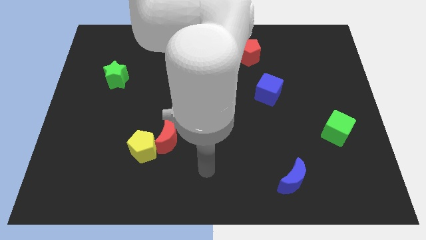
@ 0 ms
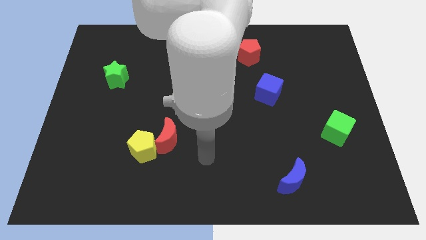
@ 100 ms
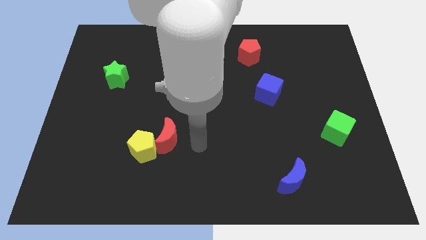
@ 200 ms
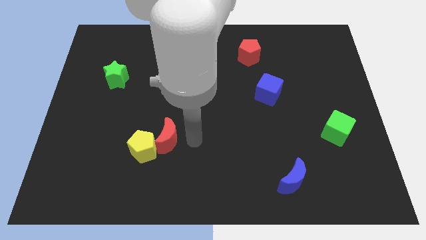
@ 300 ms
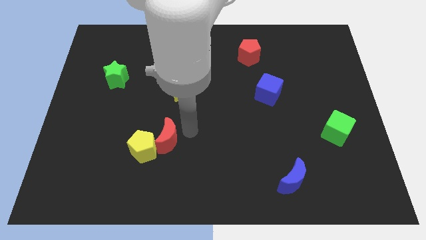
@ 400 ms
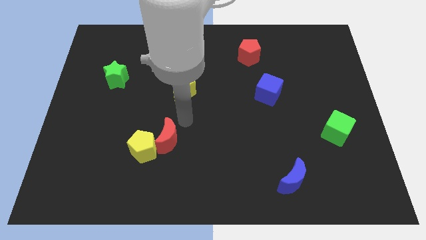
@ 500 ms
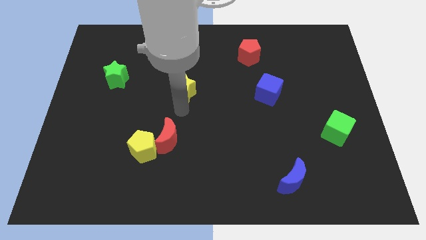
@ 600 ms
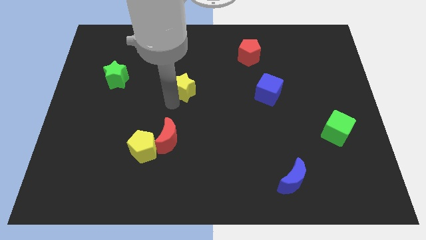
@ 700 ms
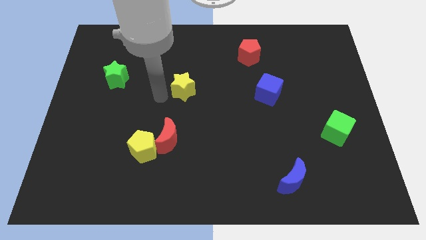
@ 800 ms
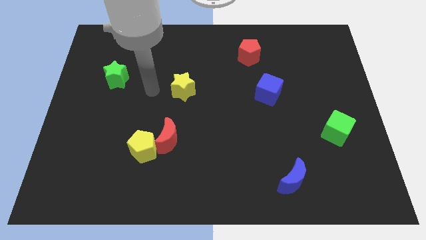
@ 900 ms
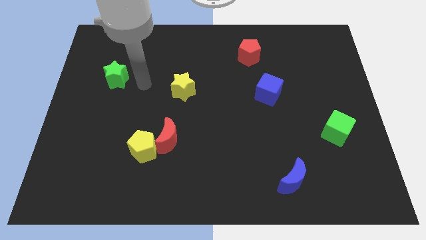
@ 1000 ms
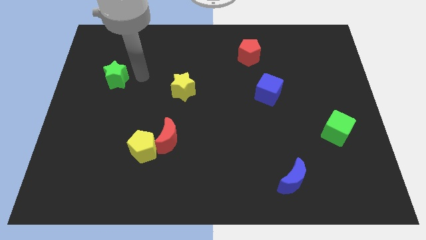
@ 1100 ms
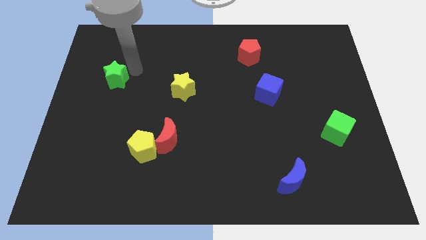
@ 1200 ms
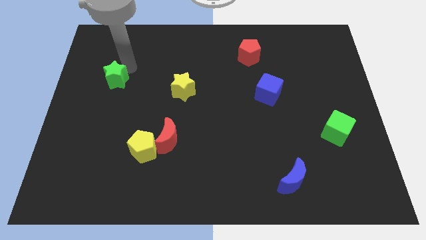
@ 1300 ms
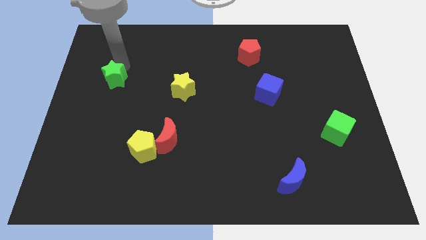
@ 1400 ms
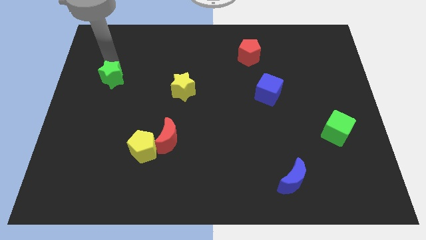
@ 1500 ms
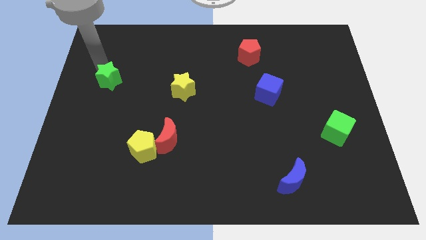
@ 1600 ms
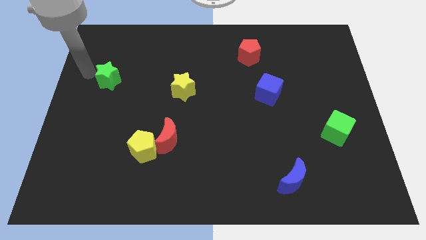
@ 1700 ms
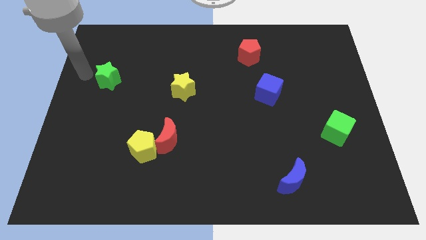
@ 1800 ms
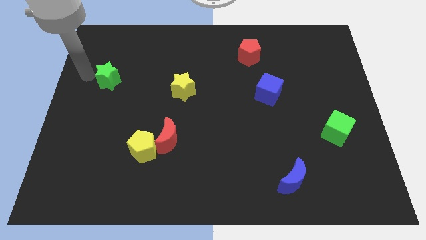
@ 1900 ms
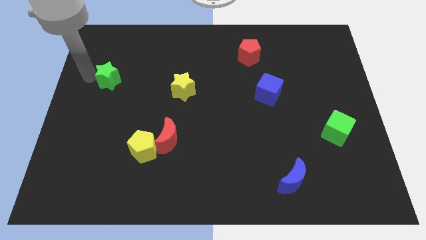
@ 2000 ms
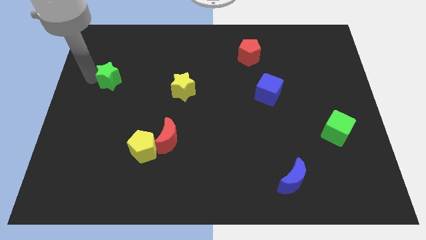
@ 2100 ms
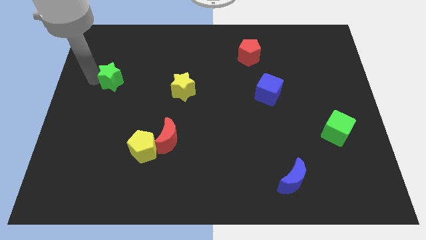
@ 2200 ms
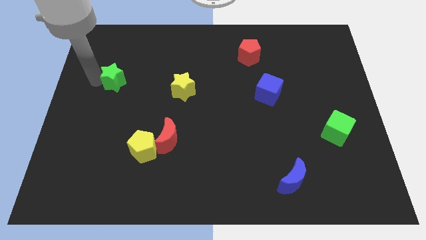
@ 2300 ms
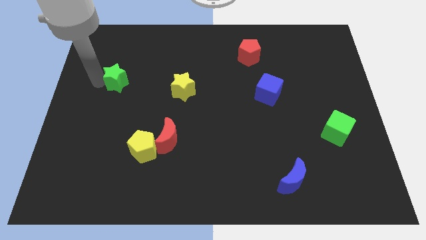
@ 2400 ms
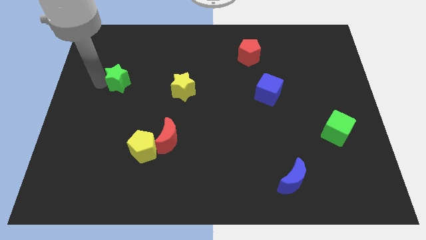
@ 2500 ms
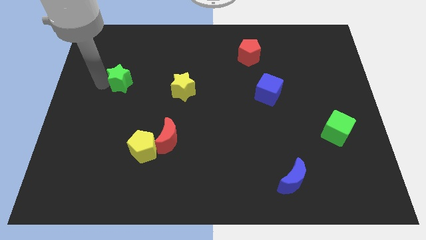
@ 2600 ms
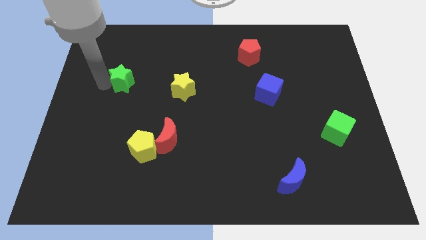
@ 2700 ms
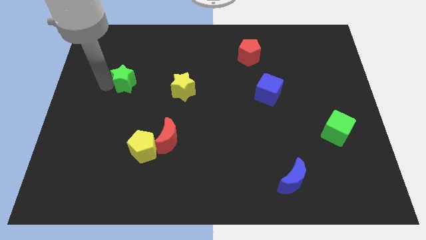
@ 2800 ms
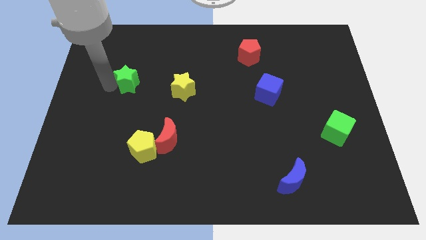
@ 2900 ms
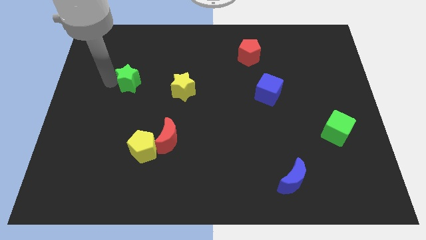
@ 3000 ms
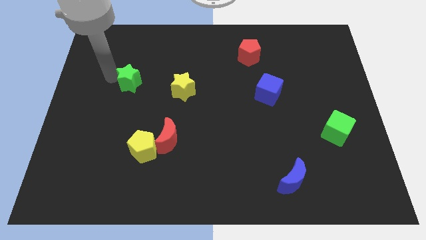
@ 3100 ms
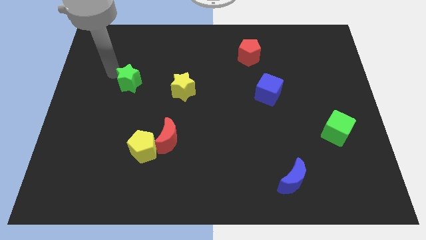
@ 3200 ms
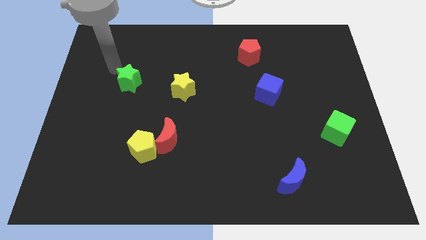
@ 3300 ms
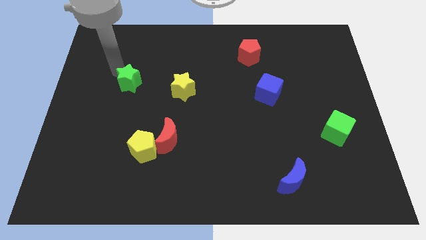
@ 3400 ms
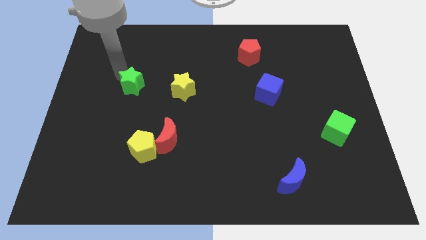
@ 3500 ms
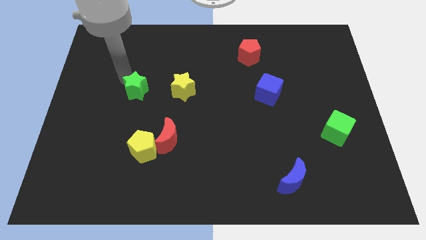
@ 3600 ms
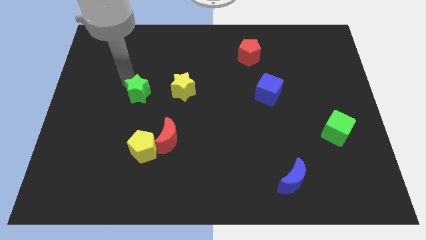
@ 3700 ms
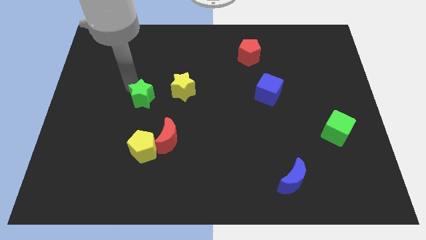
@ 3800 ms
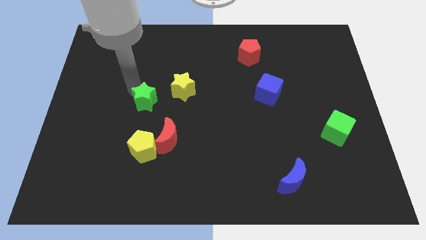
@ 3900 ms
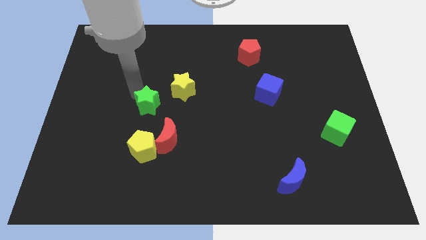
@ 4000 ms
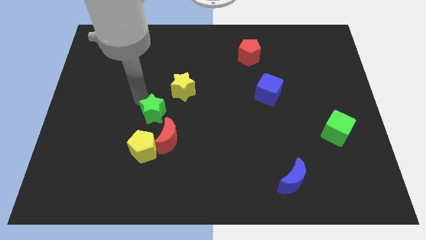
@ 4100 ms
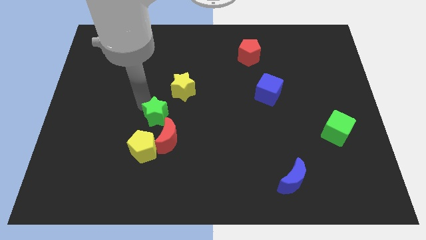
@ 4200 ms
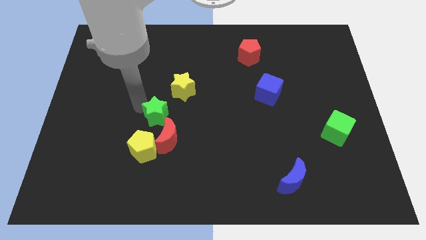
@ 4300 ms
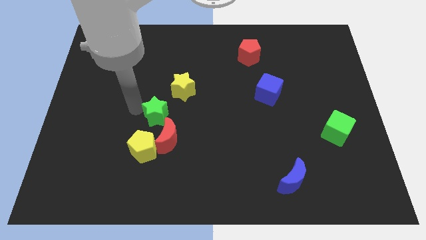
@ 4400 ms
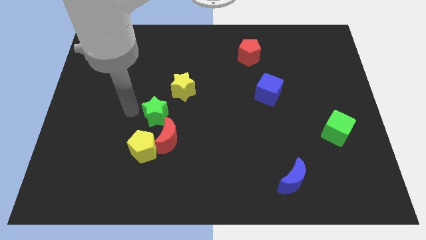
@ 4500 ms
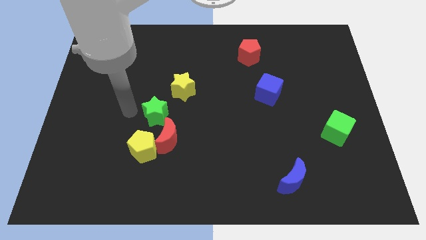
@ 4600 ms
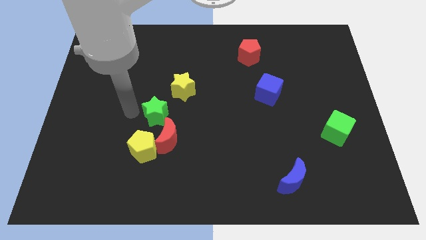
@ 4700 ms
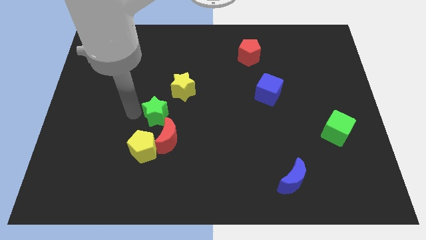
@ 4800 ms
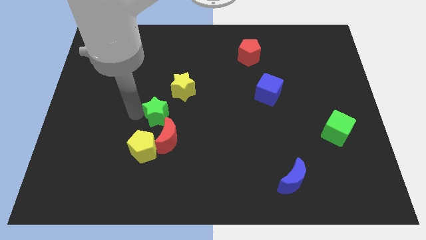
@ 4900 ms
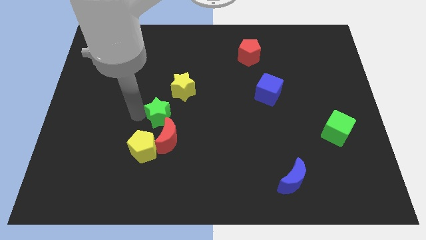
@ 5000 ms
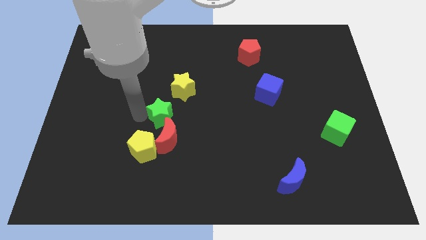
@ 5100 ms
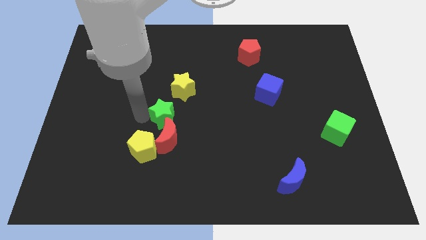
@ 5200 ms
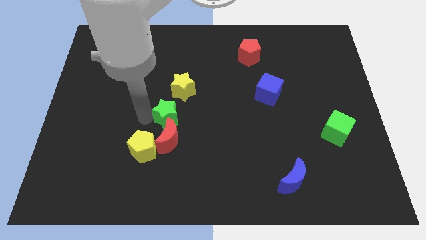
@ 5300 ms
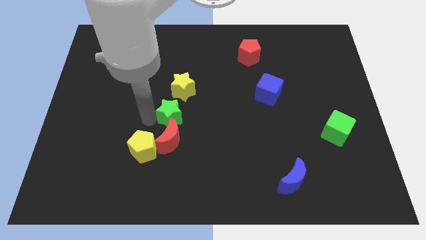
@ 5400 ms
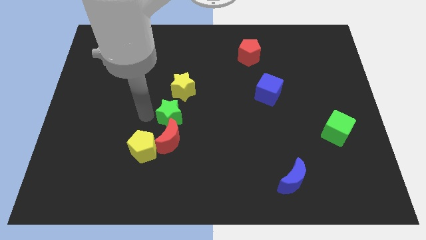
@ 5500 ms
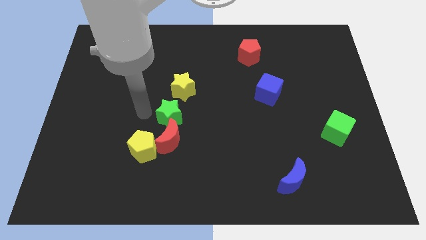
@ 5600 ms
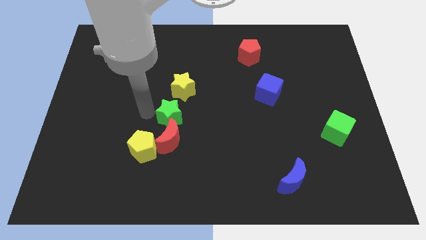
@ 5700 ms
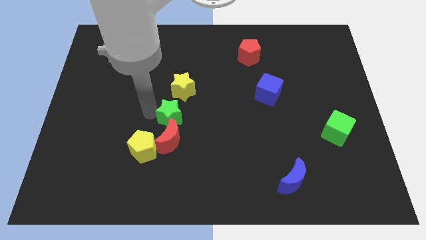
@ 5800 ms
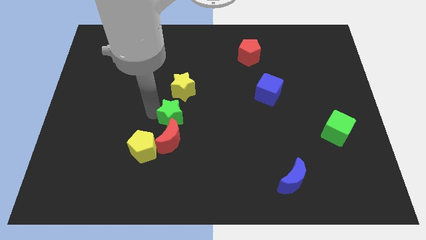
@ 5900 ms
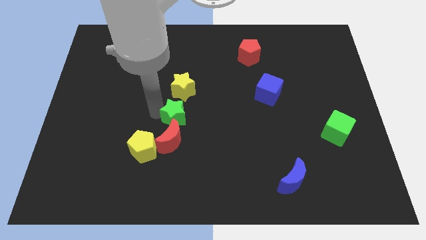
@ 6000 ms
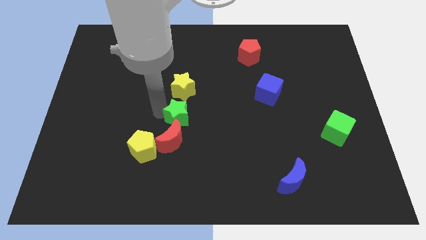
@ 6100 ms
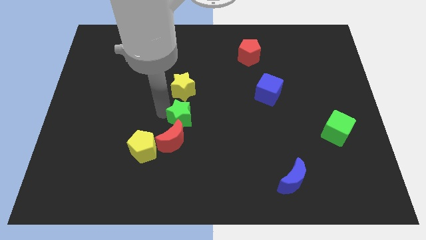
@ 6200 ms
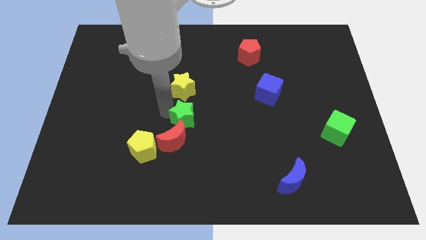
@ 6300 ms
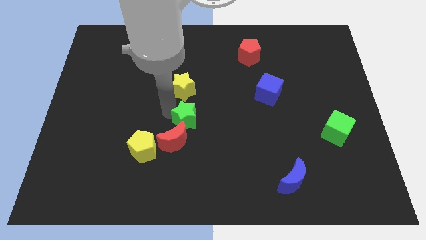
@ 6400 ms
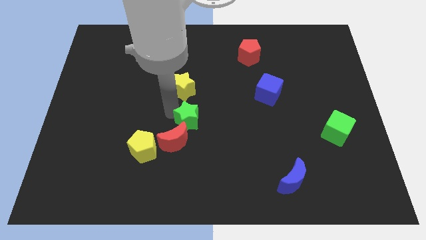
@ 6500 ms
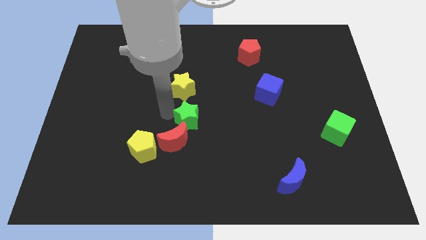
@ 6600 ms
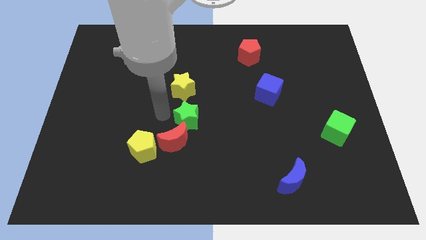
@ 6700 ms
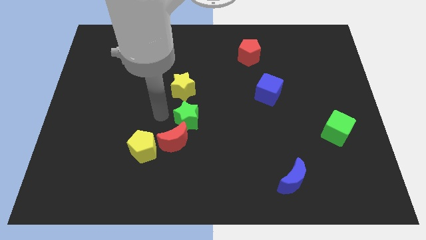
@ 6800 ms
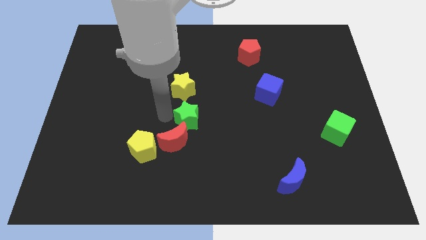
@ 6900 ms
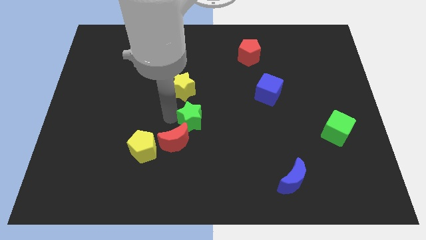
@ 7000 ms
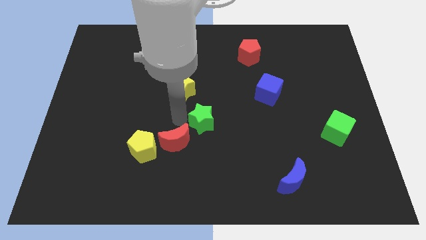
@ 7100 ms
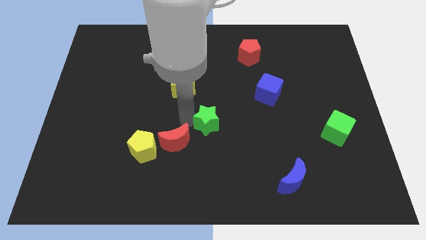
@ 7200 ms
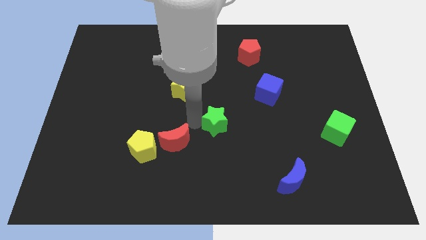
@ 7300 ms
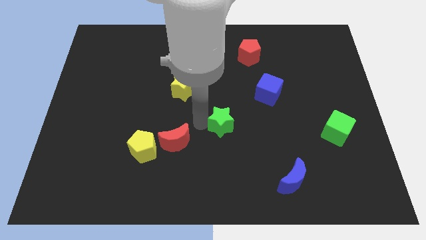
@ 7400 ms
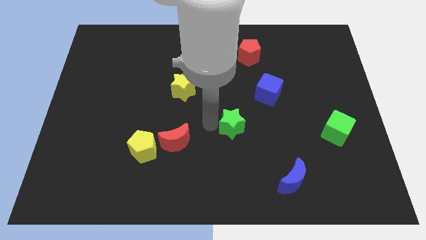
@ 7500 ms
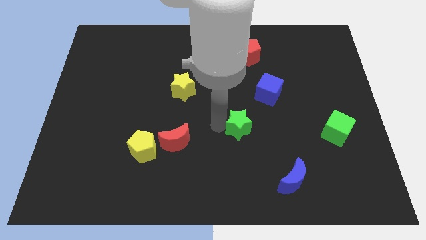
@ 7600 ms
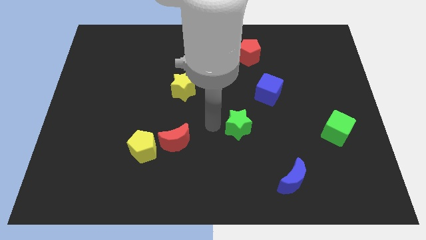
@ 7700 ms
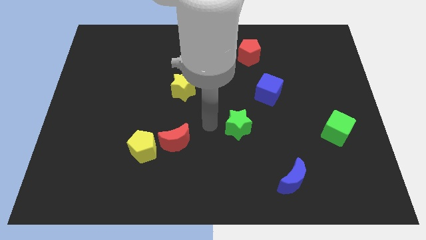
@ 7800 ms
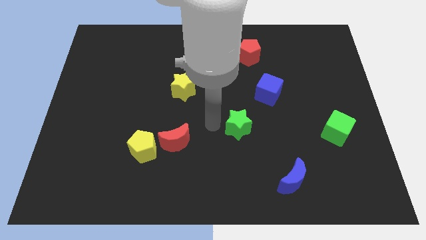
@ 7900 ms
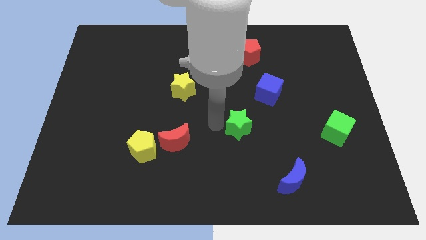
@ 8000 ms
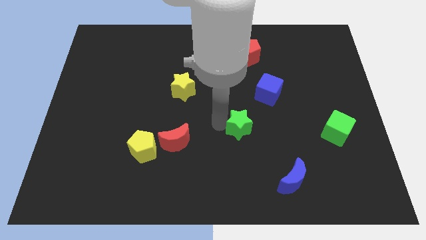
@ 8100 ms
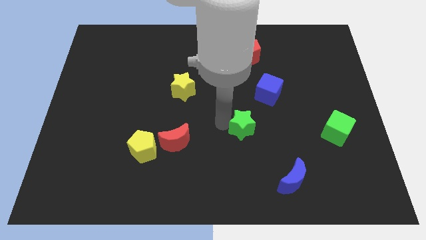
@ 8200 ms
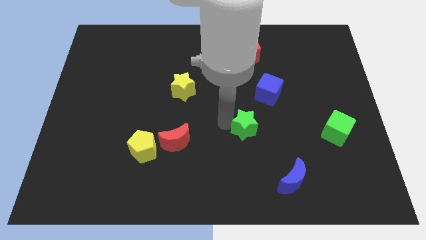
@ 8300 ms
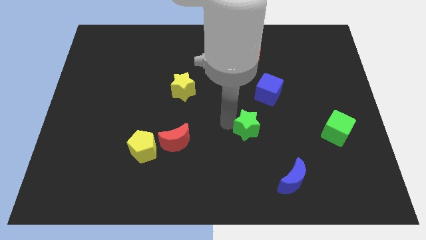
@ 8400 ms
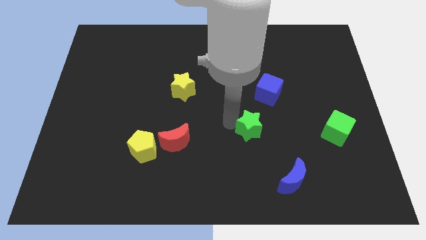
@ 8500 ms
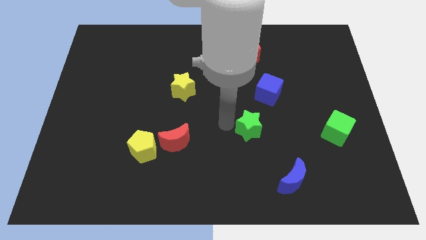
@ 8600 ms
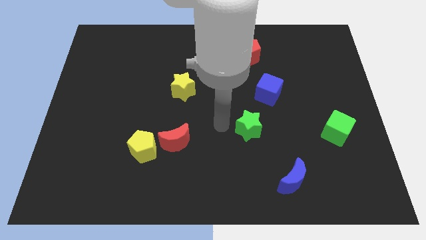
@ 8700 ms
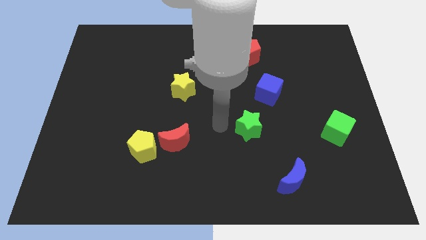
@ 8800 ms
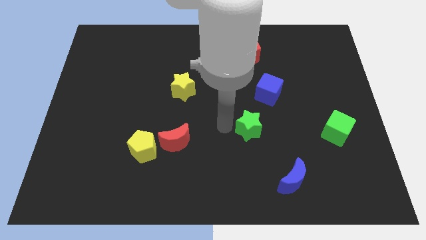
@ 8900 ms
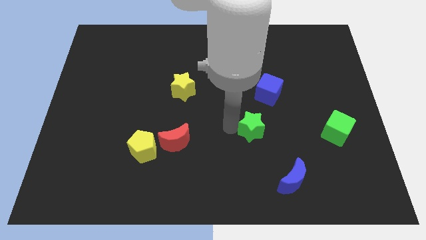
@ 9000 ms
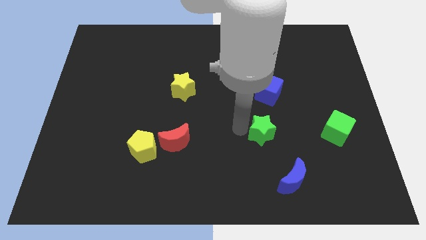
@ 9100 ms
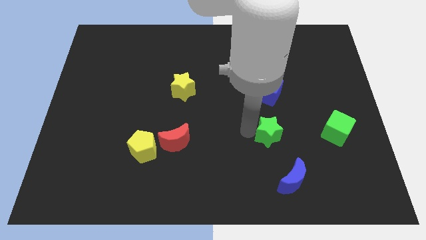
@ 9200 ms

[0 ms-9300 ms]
move the green star to the top of the blue moon

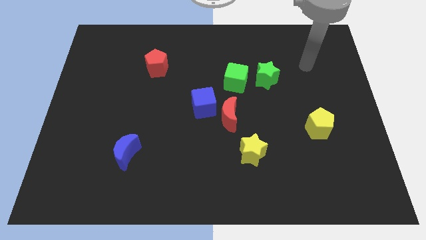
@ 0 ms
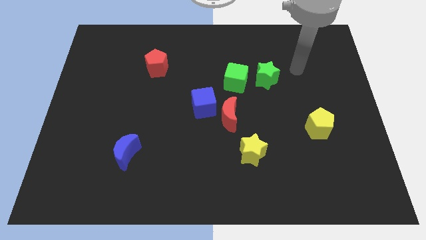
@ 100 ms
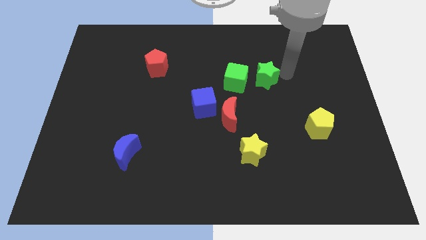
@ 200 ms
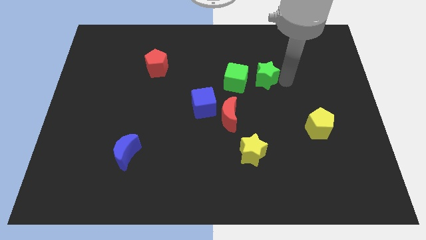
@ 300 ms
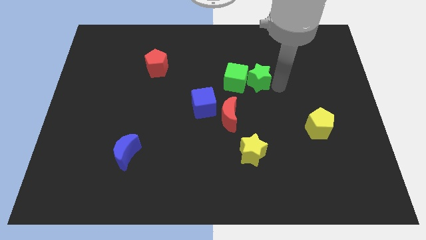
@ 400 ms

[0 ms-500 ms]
put the green cube diagonally up and to the left of the green star
